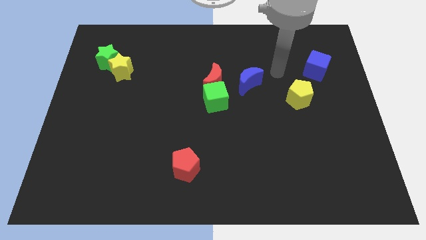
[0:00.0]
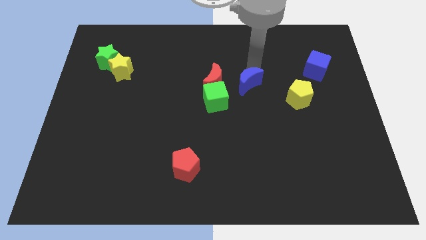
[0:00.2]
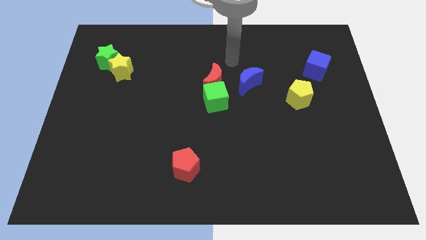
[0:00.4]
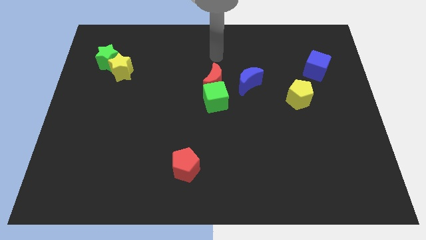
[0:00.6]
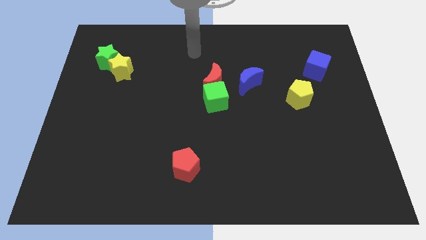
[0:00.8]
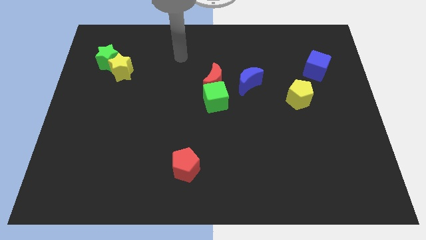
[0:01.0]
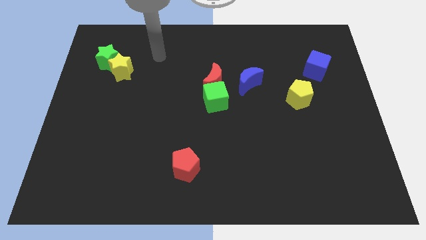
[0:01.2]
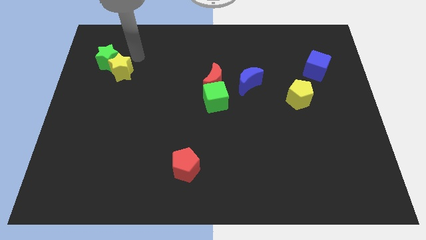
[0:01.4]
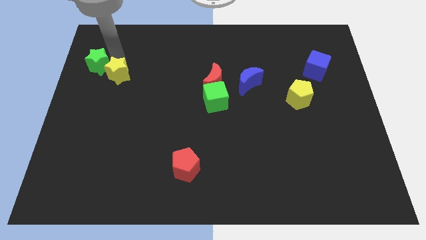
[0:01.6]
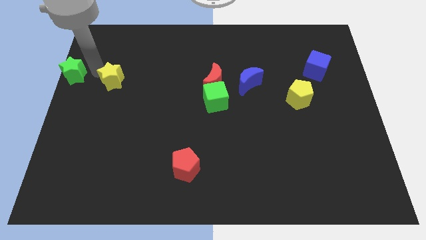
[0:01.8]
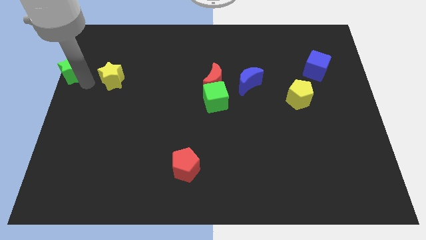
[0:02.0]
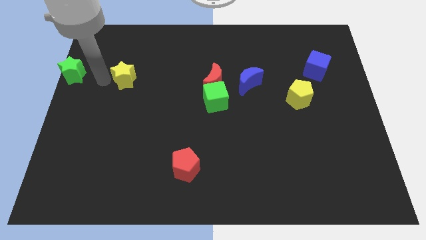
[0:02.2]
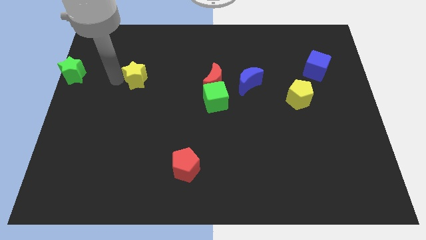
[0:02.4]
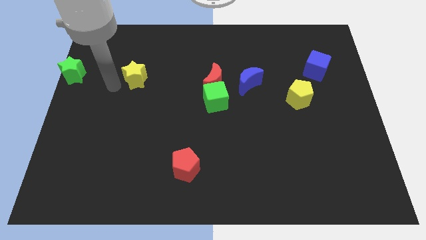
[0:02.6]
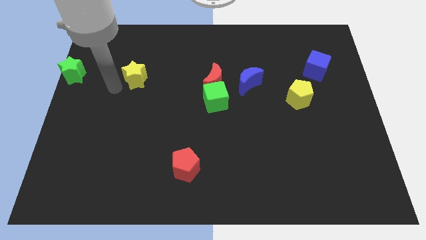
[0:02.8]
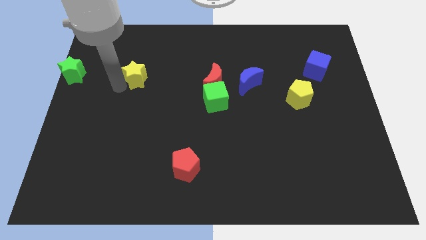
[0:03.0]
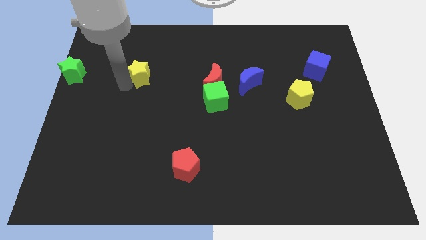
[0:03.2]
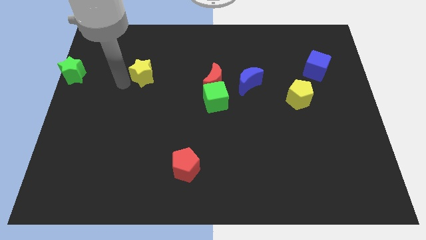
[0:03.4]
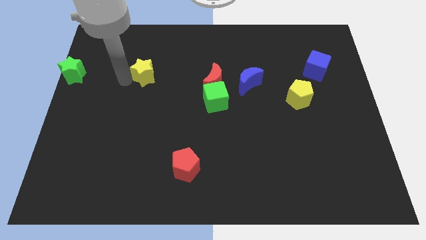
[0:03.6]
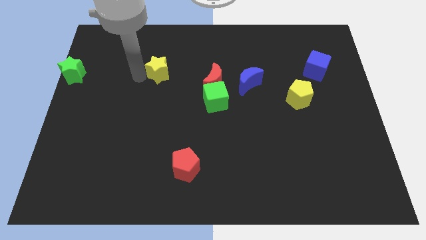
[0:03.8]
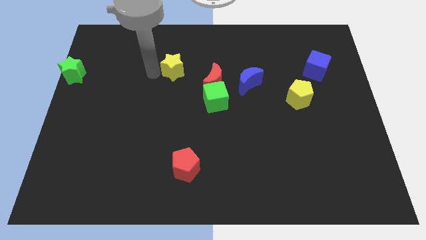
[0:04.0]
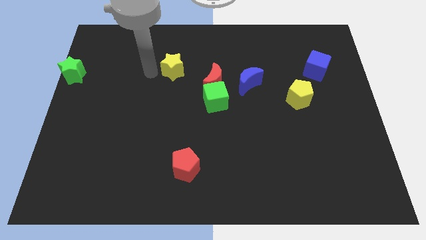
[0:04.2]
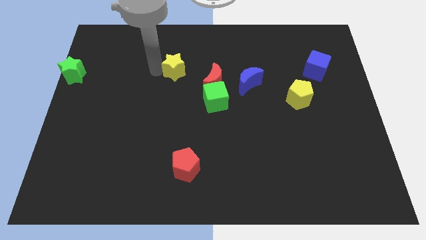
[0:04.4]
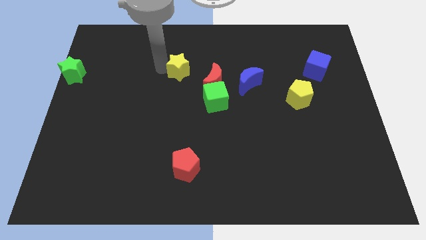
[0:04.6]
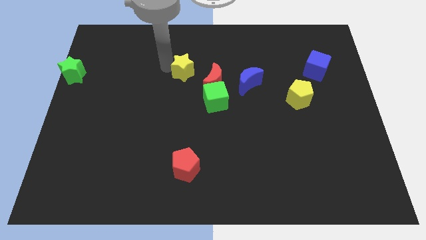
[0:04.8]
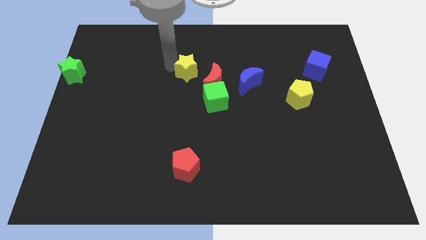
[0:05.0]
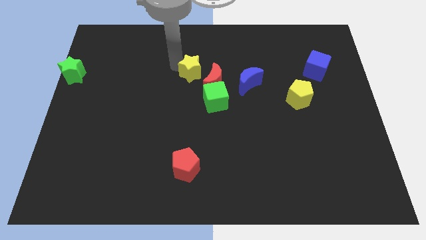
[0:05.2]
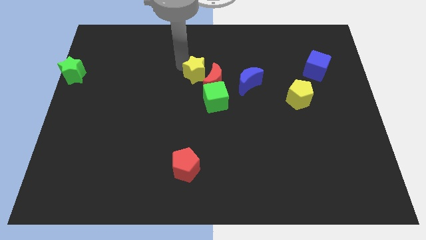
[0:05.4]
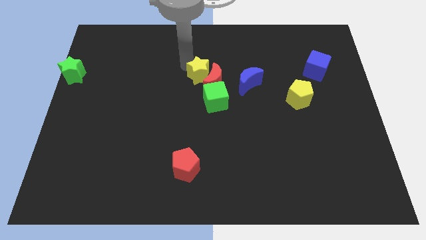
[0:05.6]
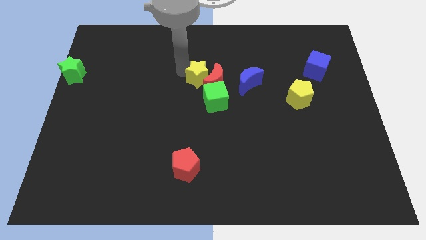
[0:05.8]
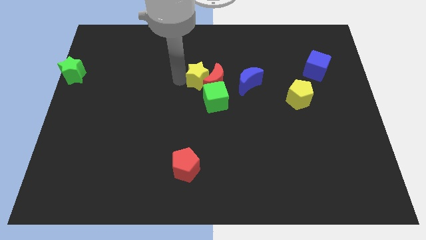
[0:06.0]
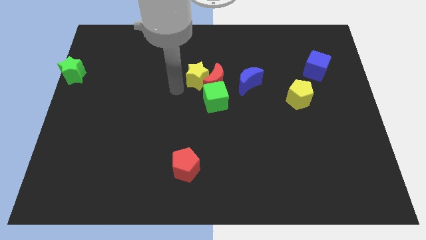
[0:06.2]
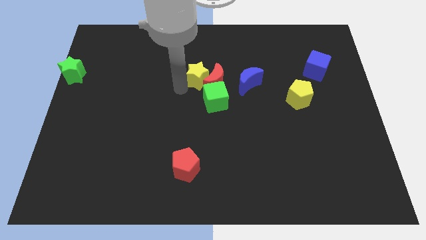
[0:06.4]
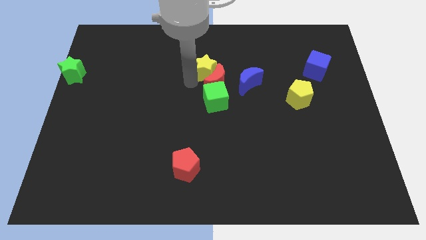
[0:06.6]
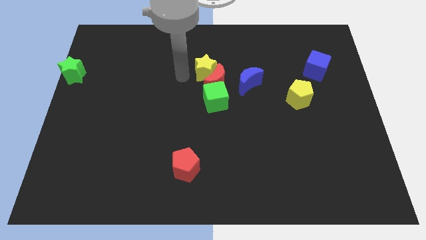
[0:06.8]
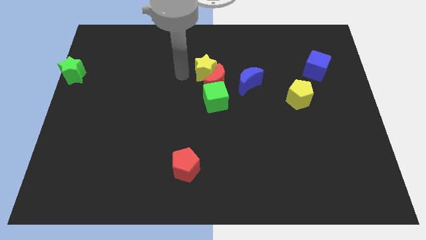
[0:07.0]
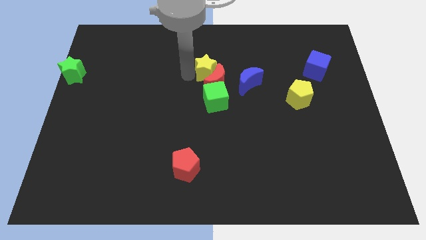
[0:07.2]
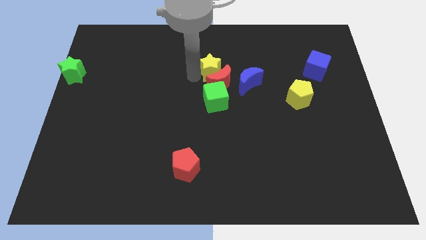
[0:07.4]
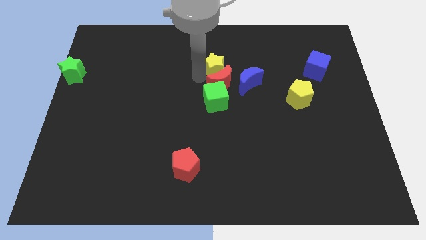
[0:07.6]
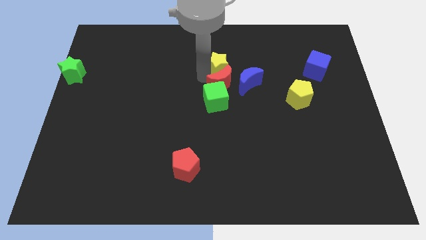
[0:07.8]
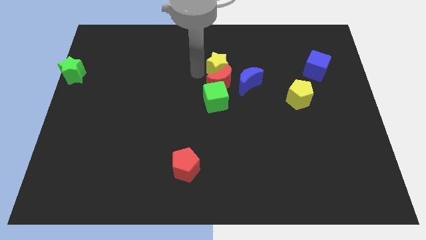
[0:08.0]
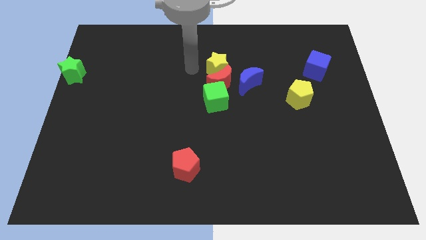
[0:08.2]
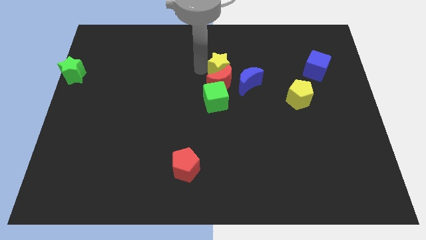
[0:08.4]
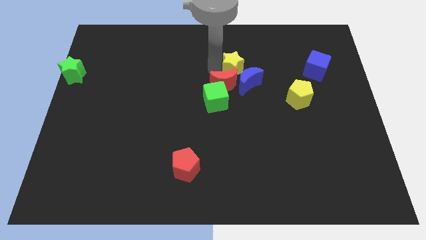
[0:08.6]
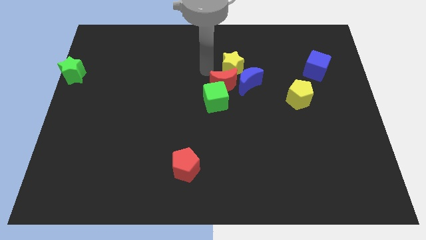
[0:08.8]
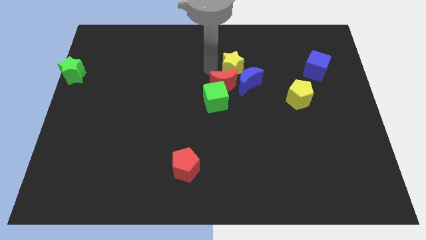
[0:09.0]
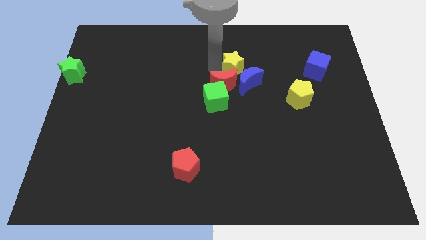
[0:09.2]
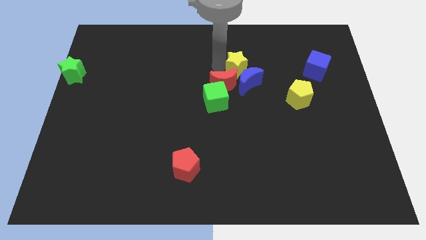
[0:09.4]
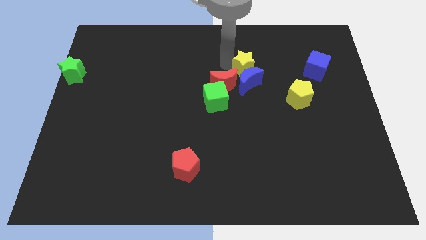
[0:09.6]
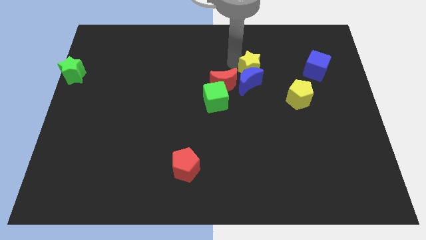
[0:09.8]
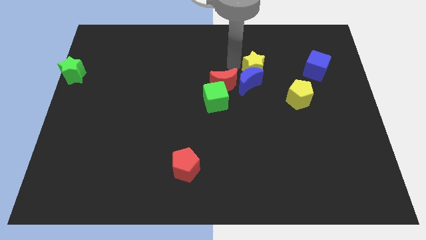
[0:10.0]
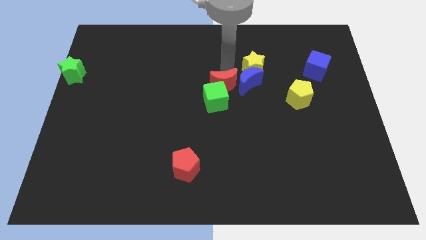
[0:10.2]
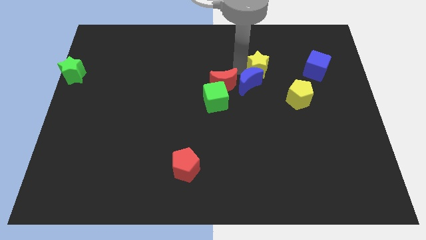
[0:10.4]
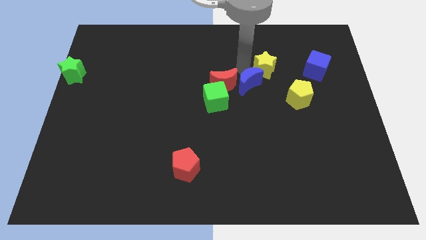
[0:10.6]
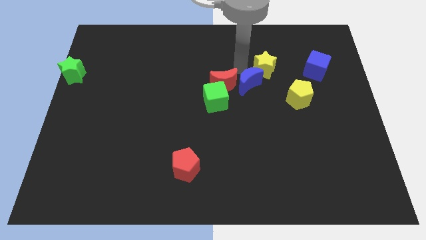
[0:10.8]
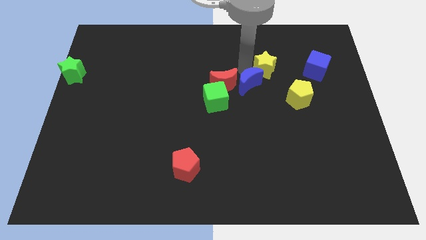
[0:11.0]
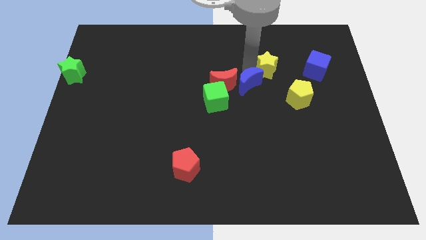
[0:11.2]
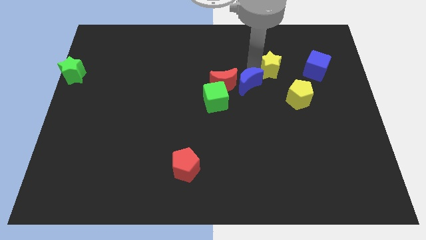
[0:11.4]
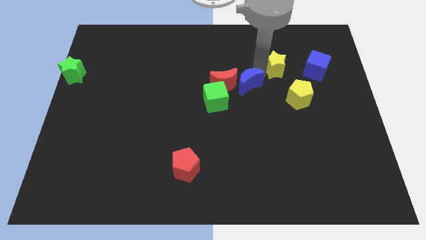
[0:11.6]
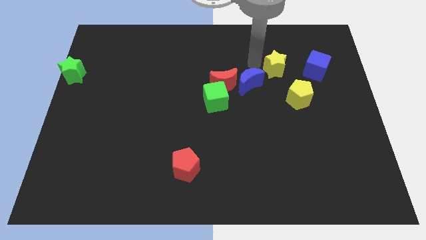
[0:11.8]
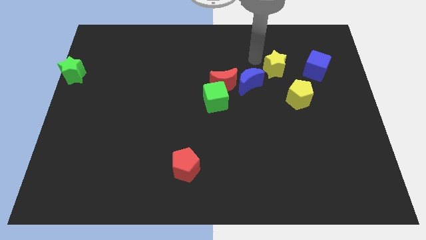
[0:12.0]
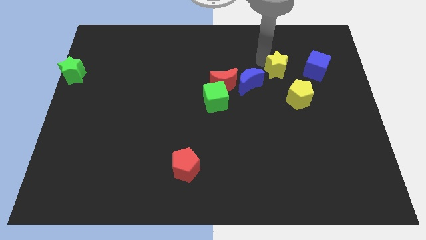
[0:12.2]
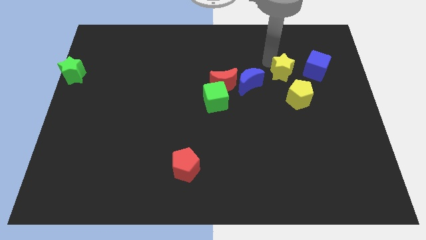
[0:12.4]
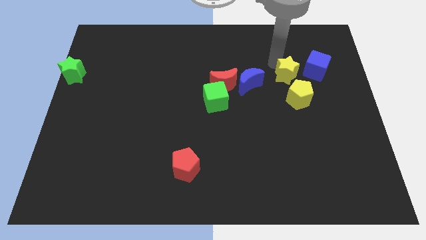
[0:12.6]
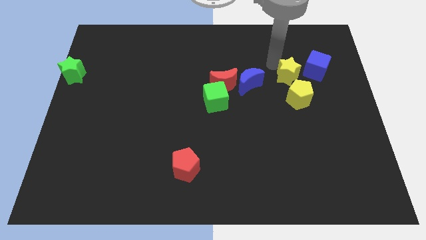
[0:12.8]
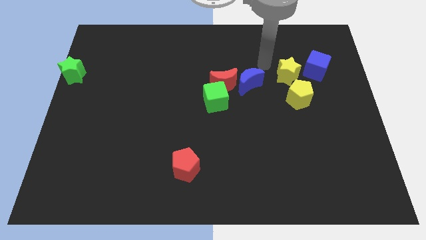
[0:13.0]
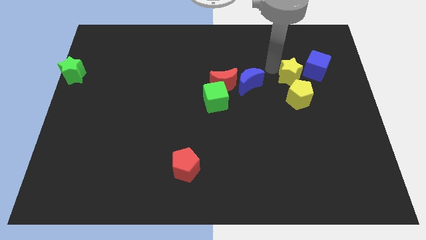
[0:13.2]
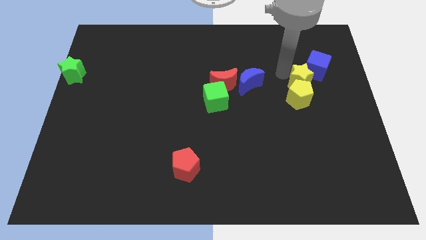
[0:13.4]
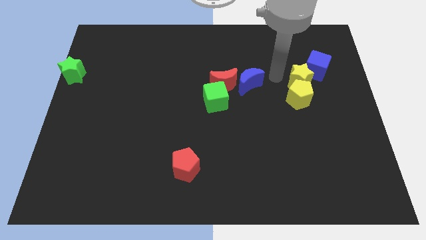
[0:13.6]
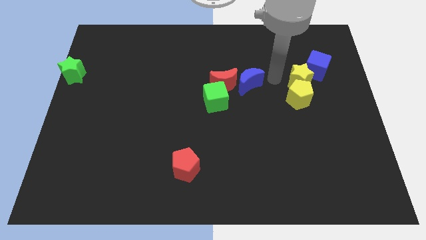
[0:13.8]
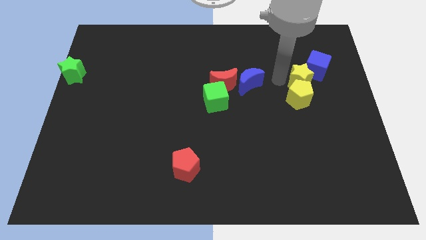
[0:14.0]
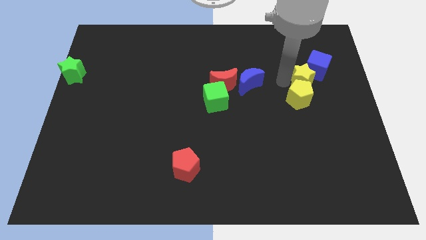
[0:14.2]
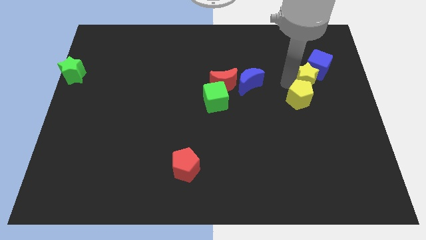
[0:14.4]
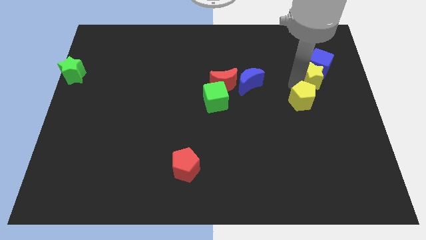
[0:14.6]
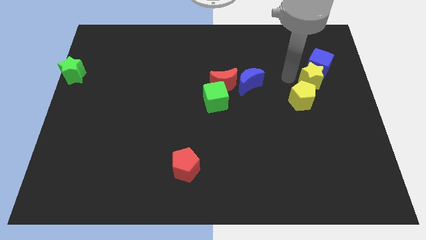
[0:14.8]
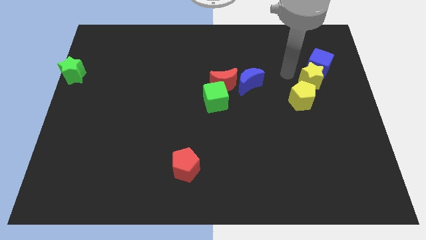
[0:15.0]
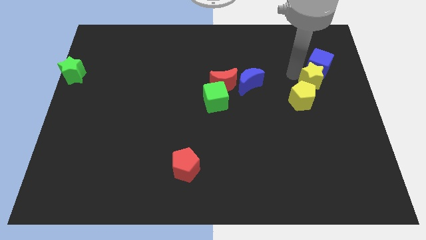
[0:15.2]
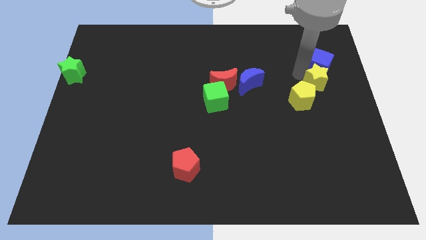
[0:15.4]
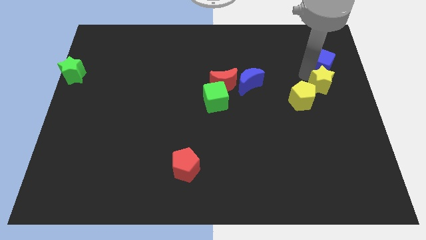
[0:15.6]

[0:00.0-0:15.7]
put the yellow star to the right side
